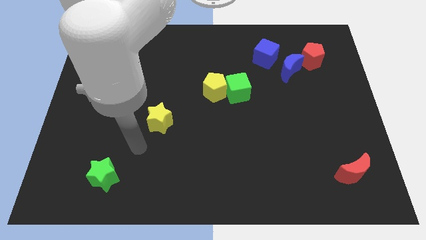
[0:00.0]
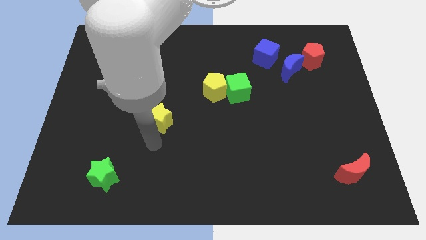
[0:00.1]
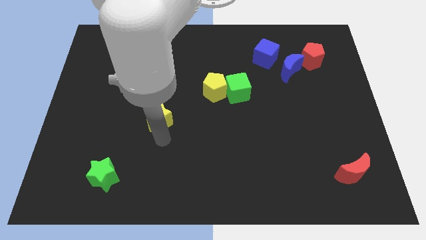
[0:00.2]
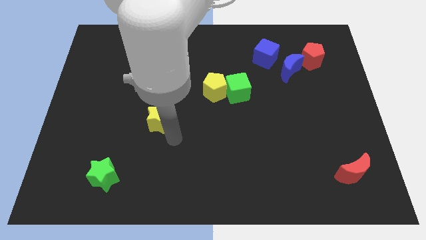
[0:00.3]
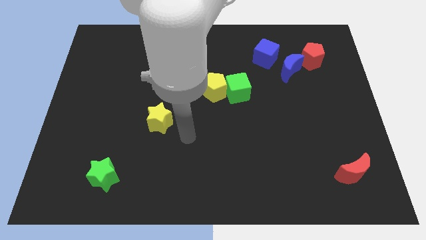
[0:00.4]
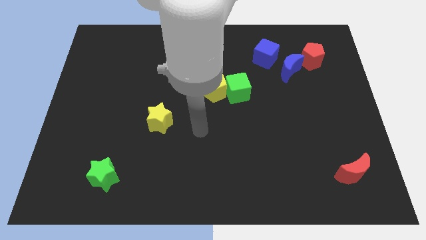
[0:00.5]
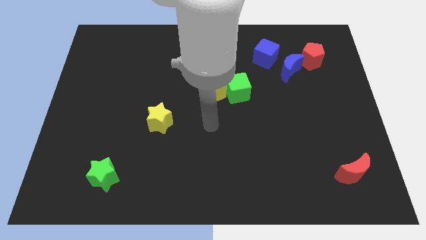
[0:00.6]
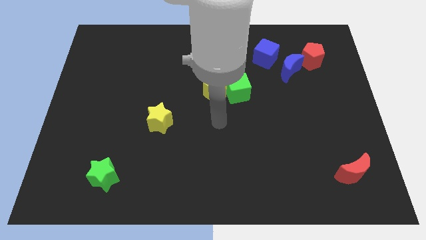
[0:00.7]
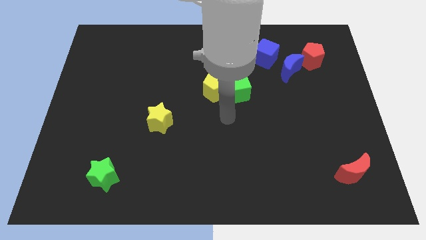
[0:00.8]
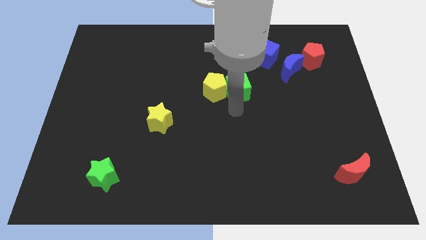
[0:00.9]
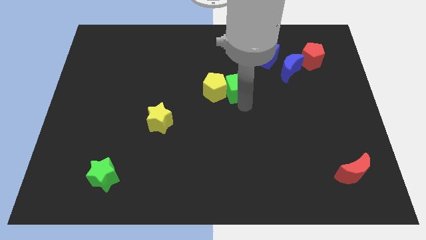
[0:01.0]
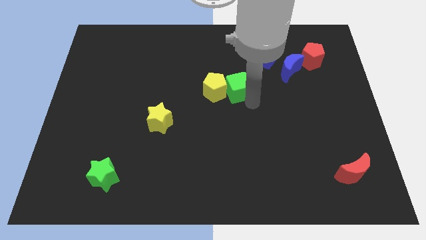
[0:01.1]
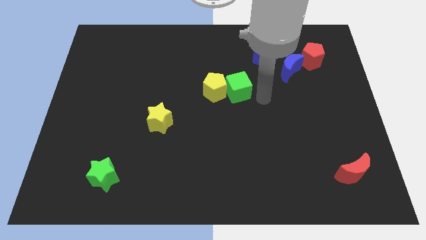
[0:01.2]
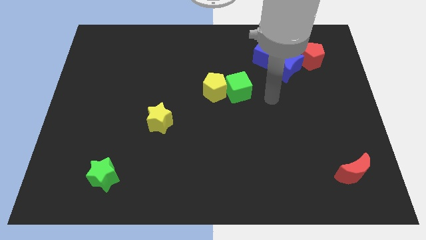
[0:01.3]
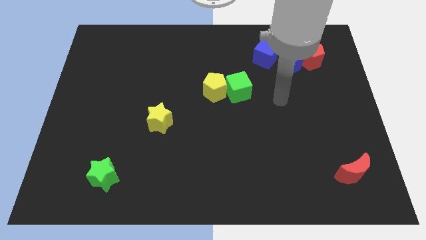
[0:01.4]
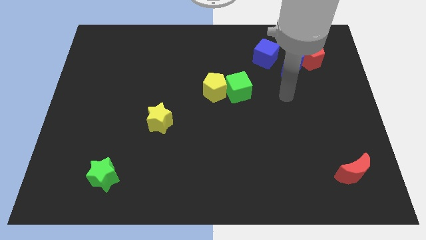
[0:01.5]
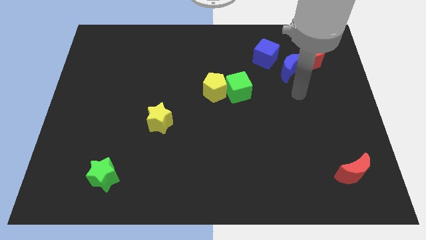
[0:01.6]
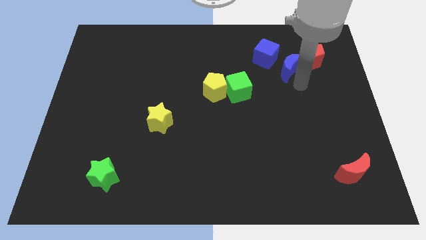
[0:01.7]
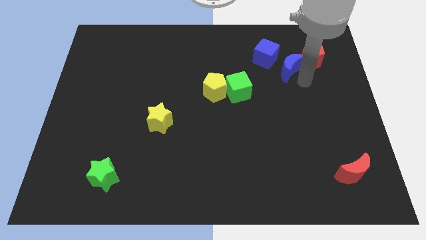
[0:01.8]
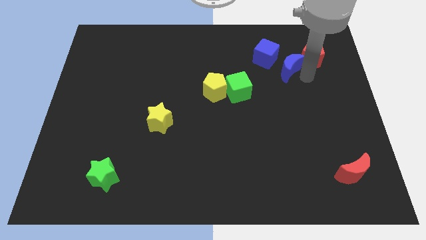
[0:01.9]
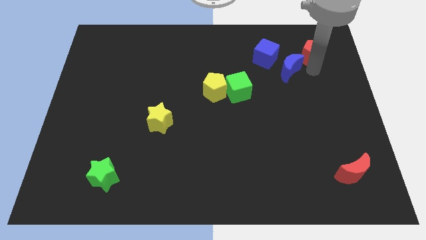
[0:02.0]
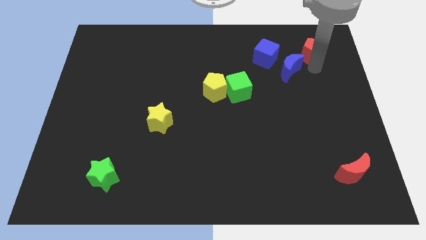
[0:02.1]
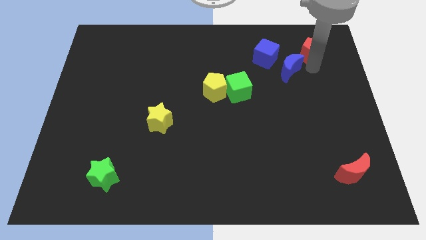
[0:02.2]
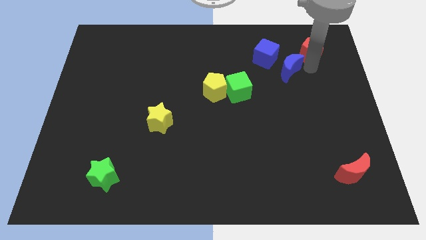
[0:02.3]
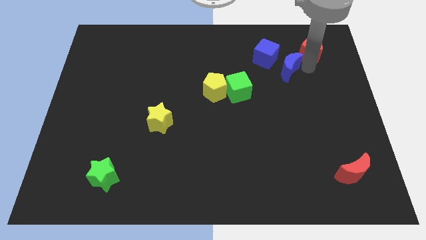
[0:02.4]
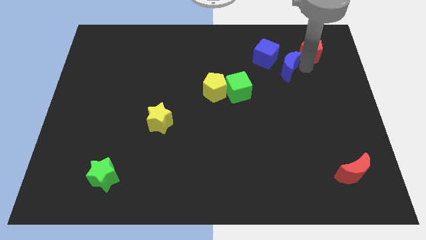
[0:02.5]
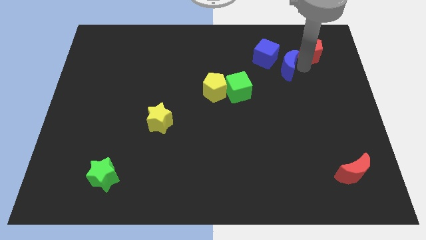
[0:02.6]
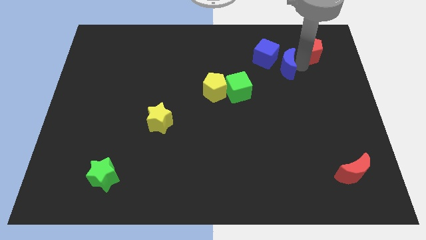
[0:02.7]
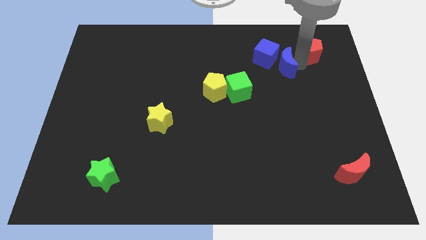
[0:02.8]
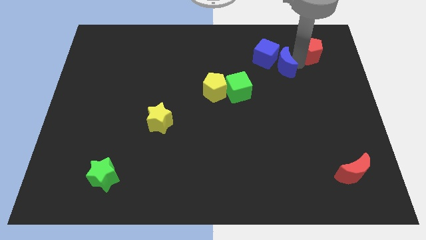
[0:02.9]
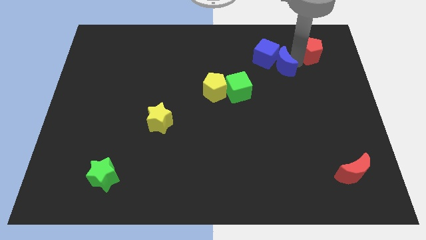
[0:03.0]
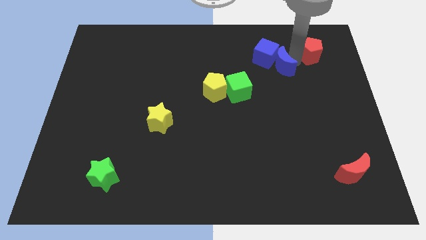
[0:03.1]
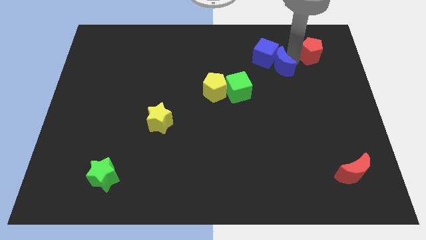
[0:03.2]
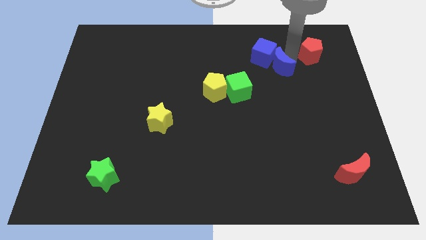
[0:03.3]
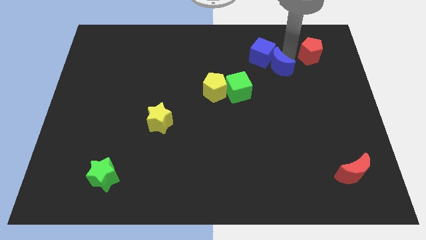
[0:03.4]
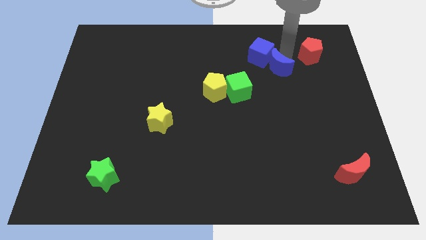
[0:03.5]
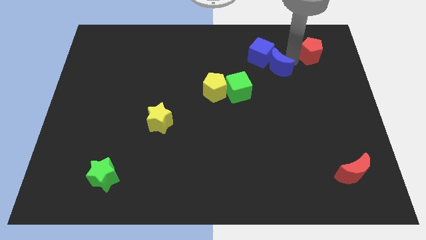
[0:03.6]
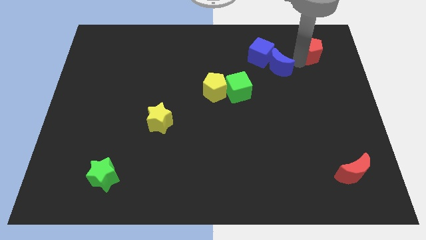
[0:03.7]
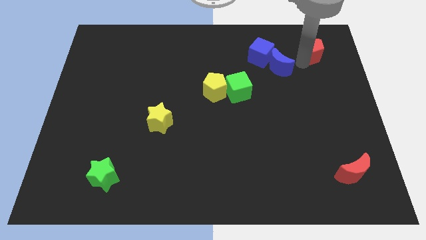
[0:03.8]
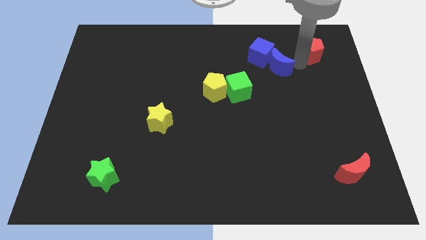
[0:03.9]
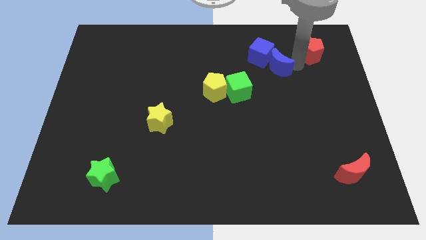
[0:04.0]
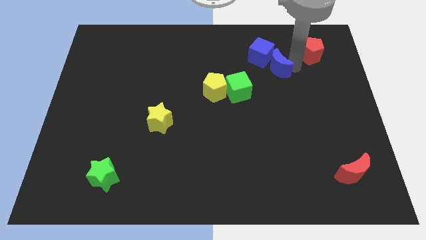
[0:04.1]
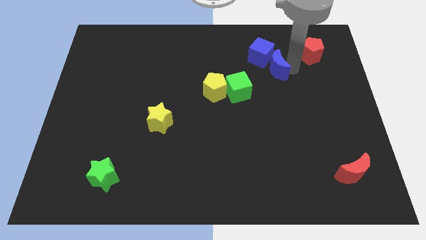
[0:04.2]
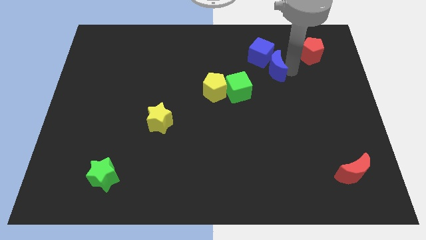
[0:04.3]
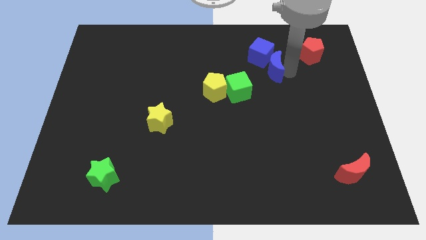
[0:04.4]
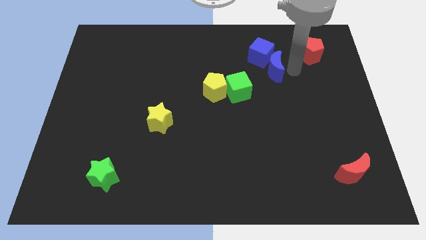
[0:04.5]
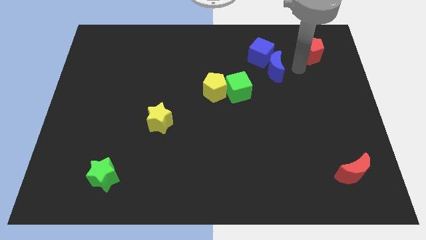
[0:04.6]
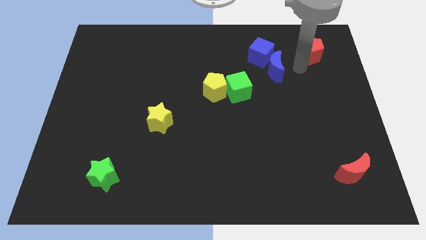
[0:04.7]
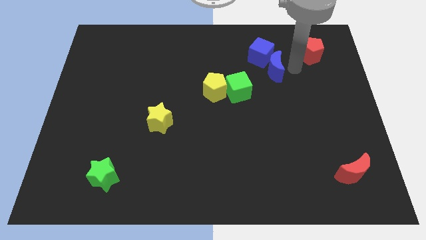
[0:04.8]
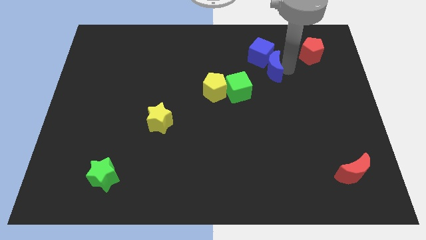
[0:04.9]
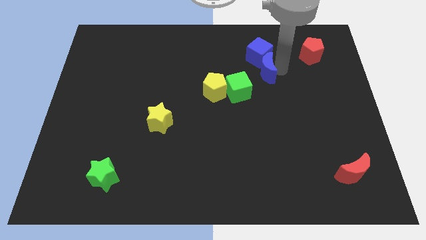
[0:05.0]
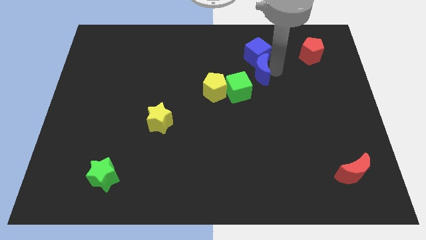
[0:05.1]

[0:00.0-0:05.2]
move the blue moon slightly left

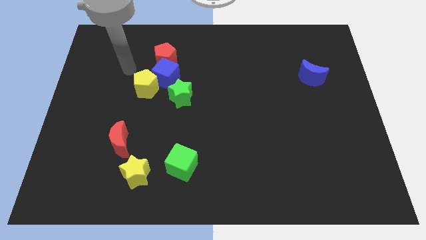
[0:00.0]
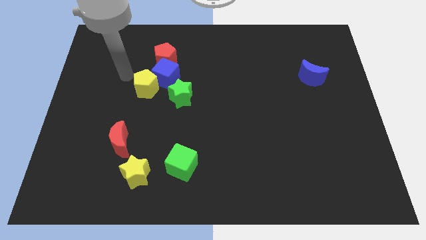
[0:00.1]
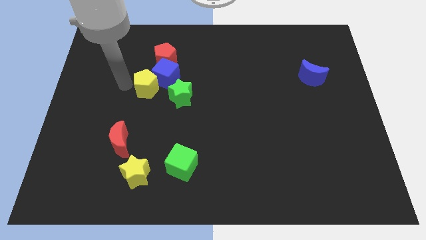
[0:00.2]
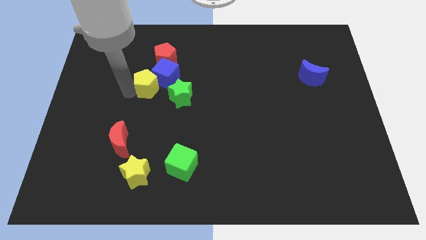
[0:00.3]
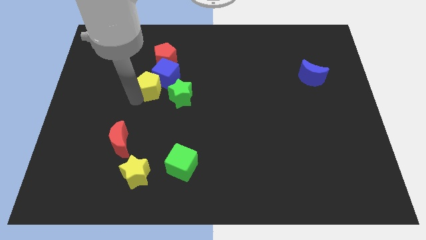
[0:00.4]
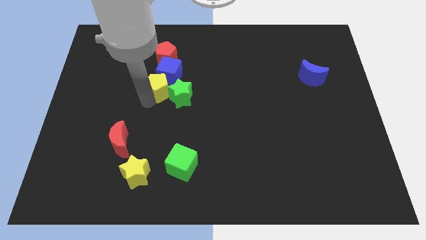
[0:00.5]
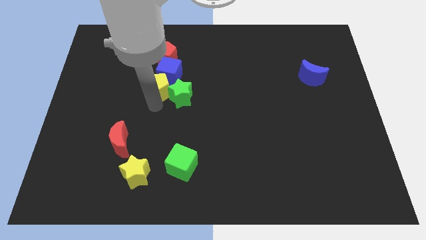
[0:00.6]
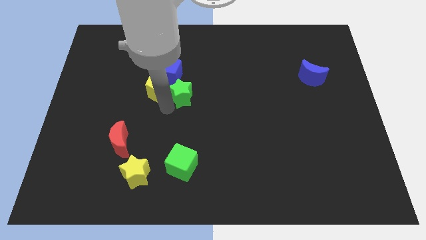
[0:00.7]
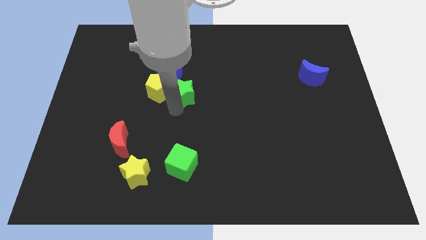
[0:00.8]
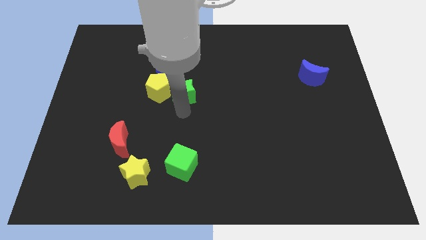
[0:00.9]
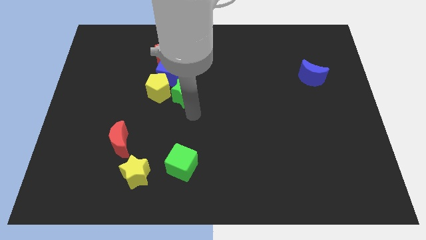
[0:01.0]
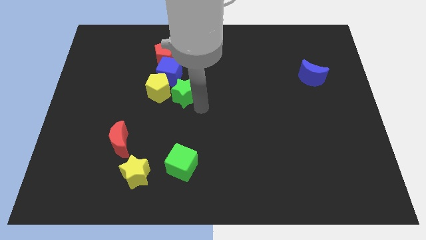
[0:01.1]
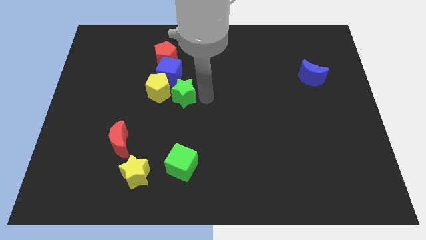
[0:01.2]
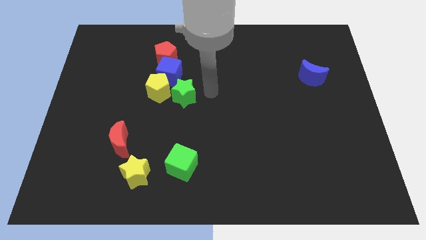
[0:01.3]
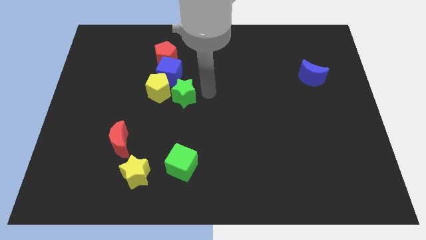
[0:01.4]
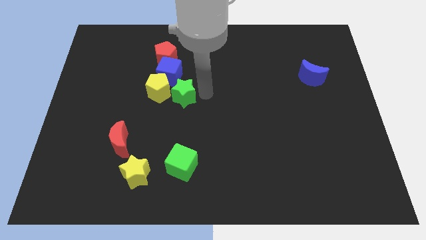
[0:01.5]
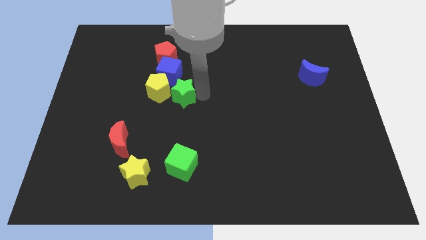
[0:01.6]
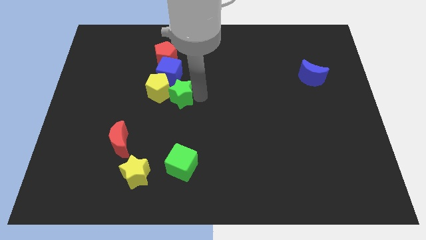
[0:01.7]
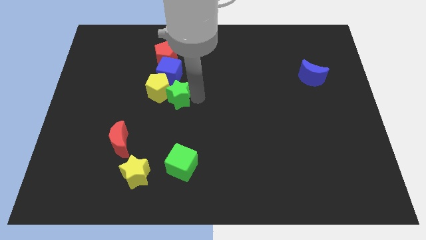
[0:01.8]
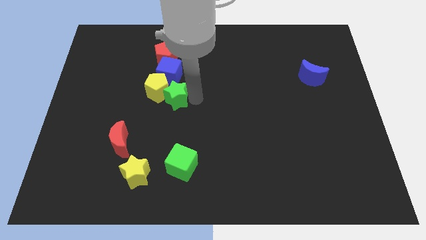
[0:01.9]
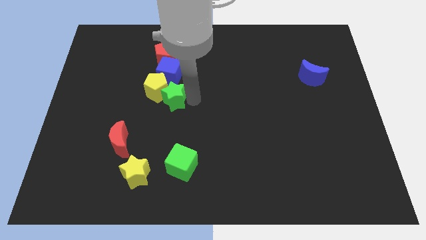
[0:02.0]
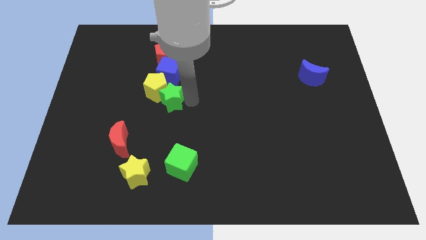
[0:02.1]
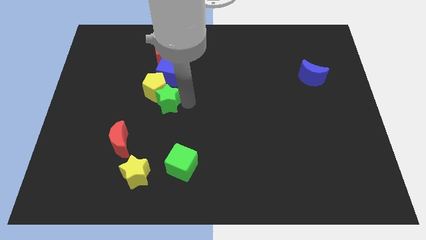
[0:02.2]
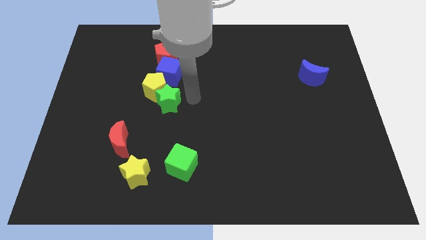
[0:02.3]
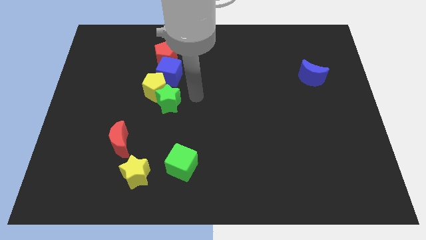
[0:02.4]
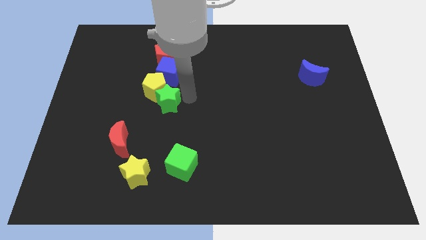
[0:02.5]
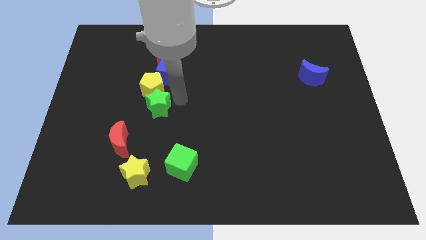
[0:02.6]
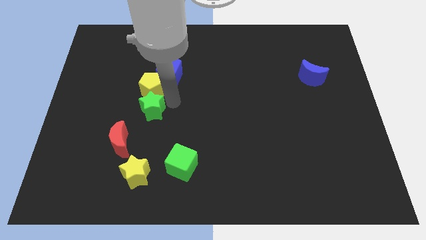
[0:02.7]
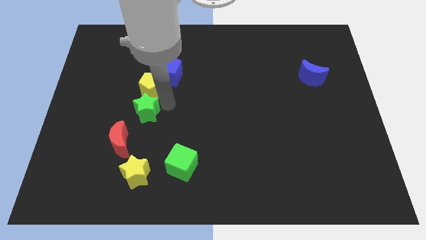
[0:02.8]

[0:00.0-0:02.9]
move the green star a bit to the left

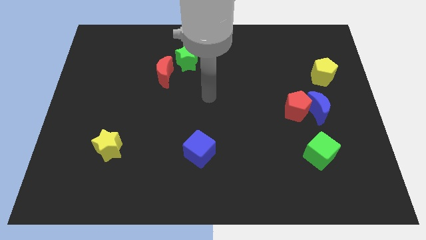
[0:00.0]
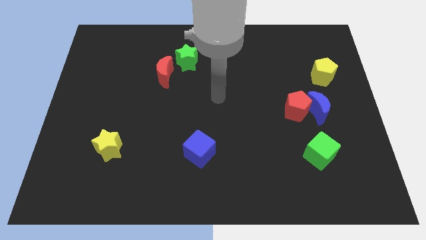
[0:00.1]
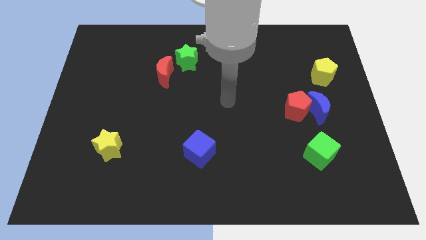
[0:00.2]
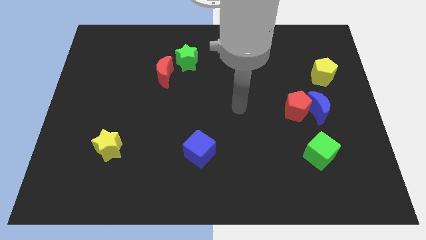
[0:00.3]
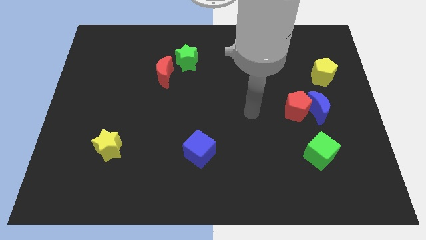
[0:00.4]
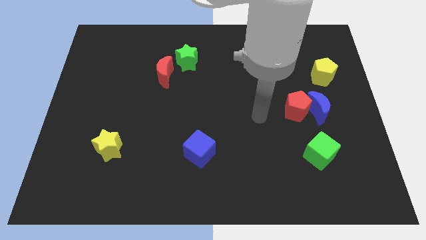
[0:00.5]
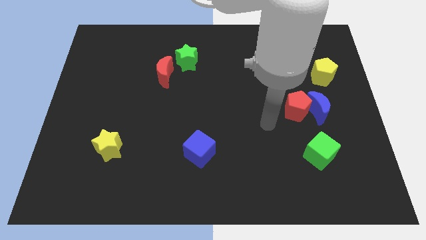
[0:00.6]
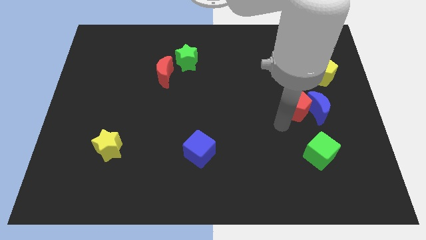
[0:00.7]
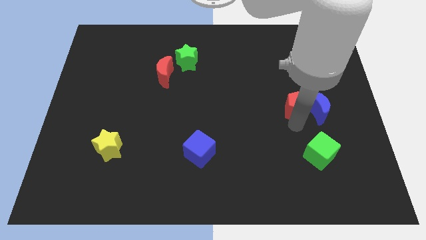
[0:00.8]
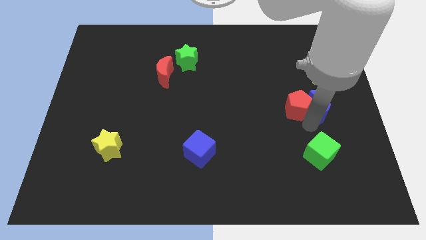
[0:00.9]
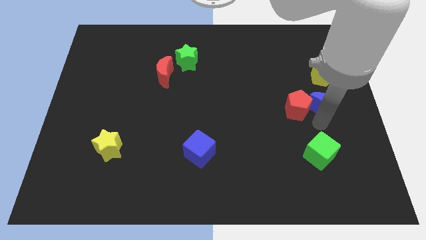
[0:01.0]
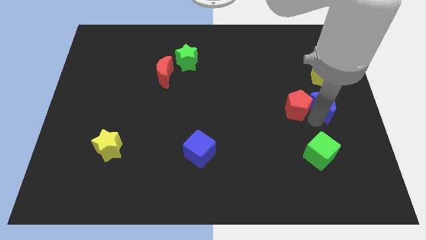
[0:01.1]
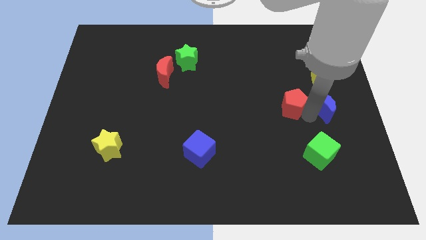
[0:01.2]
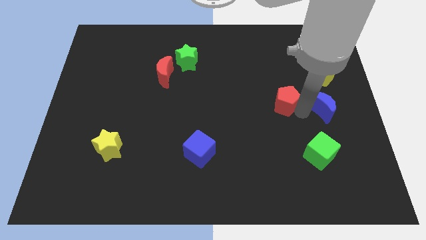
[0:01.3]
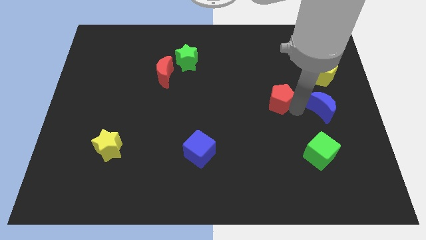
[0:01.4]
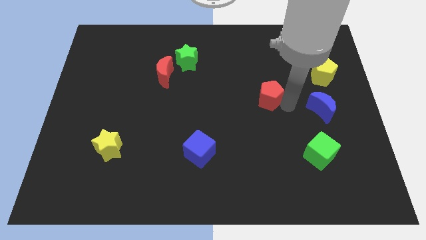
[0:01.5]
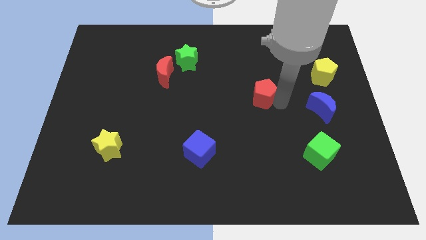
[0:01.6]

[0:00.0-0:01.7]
move the red pentagon up and left a bit
